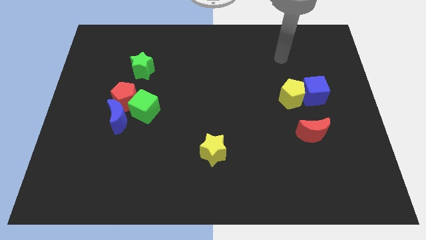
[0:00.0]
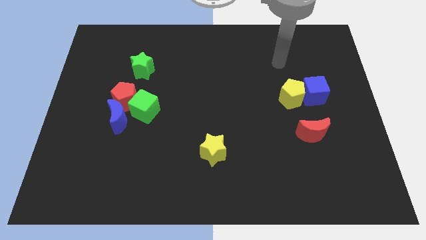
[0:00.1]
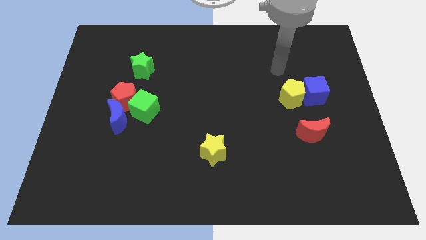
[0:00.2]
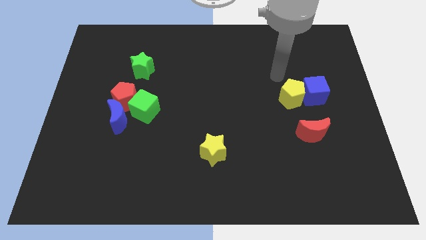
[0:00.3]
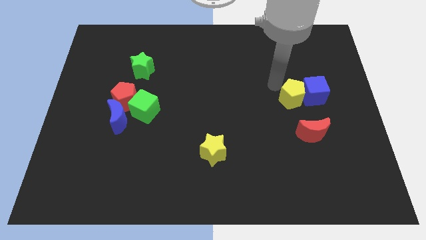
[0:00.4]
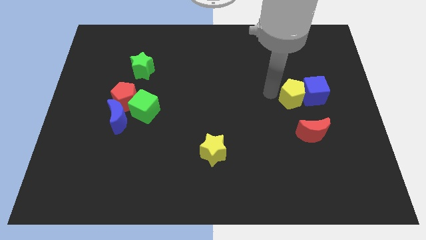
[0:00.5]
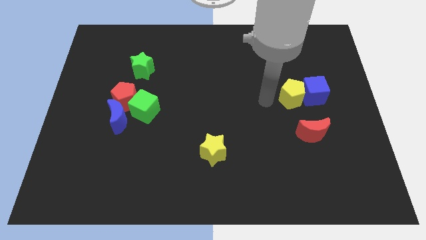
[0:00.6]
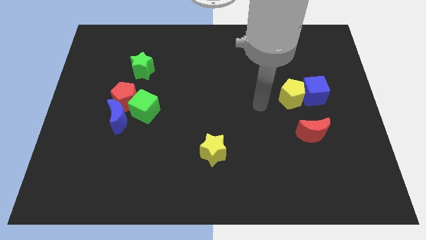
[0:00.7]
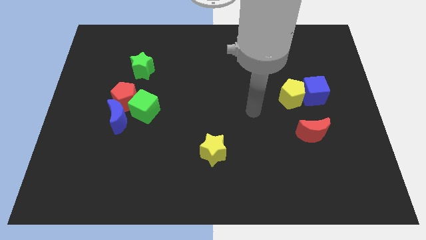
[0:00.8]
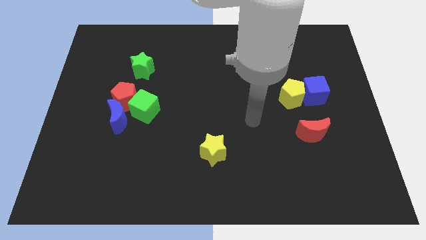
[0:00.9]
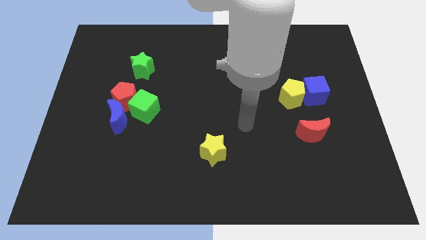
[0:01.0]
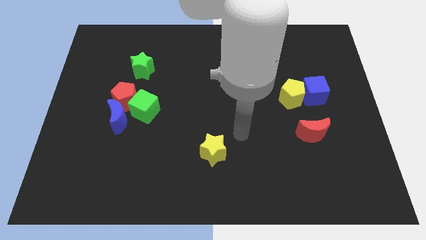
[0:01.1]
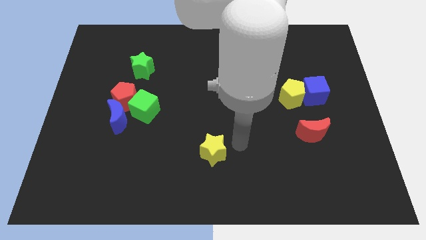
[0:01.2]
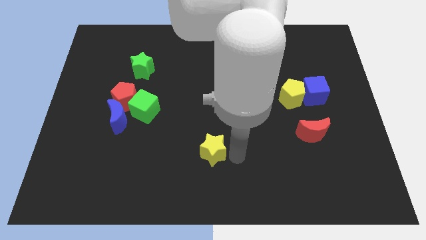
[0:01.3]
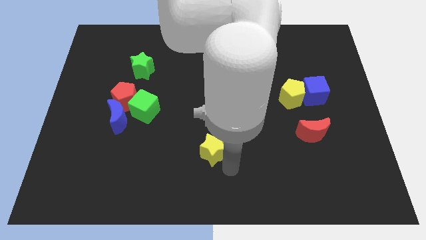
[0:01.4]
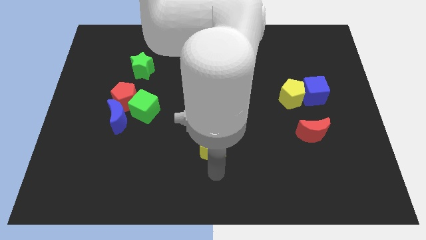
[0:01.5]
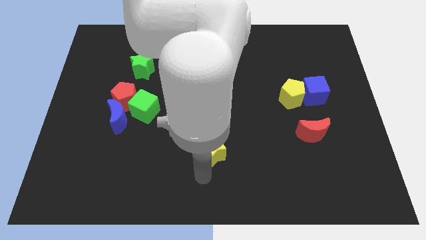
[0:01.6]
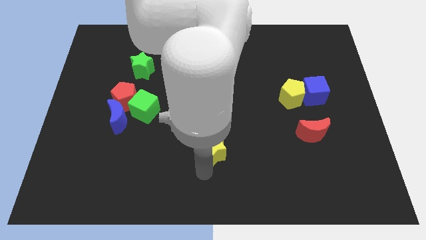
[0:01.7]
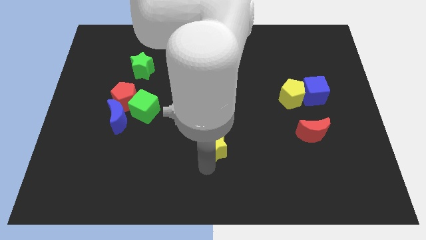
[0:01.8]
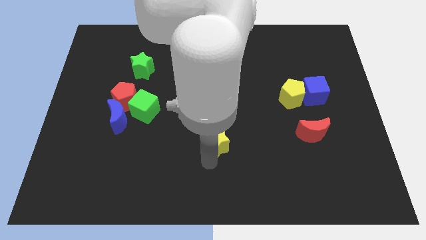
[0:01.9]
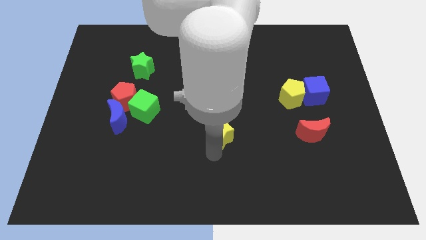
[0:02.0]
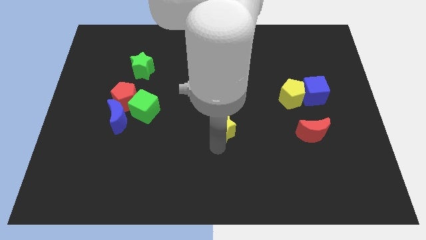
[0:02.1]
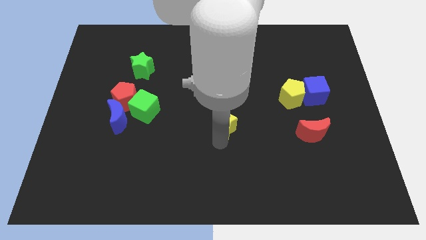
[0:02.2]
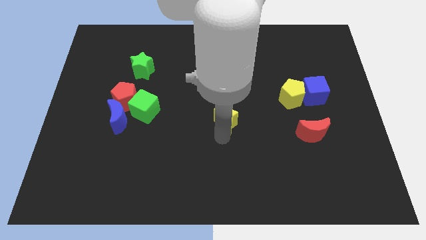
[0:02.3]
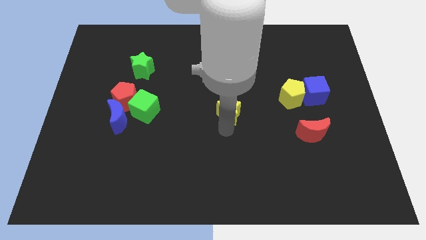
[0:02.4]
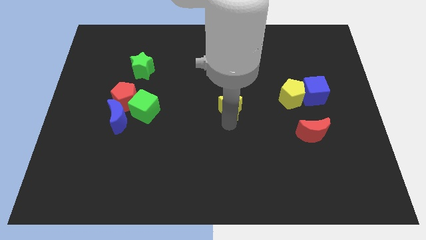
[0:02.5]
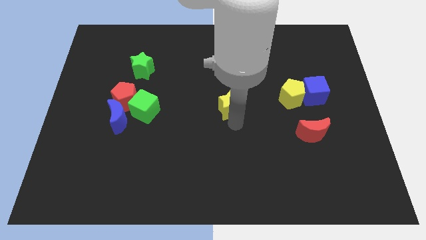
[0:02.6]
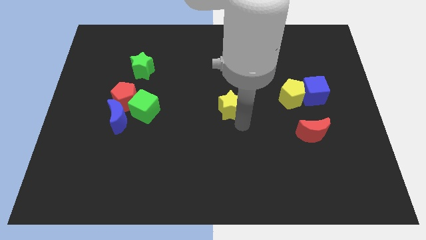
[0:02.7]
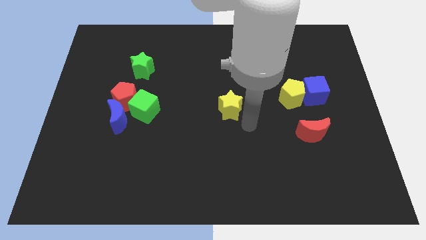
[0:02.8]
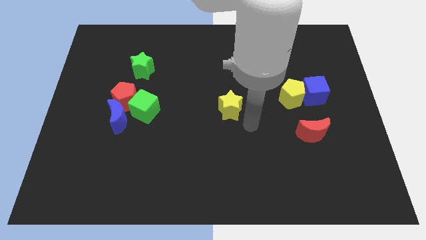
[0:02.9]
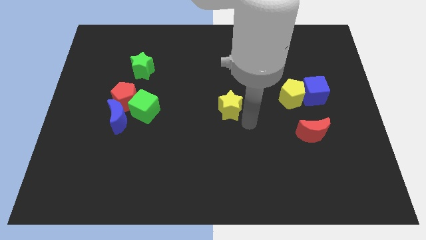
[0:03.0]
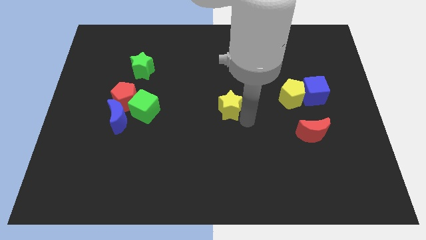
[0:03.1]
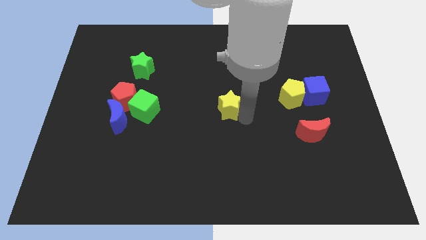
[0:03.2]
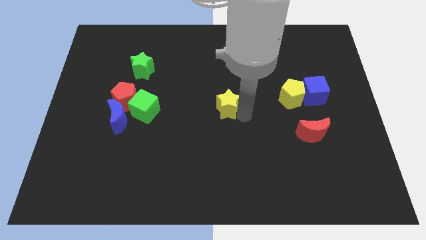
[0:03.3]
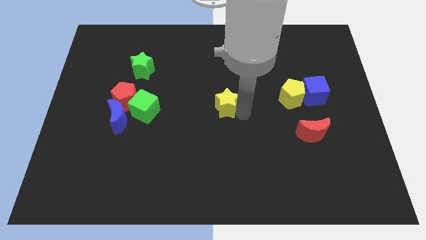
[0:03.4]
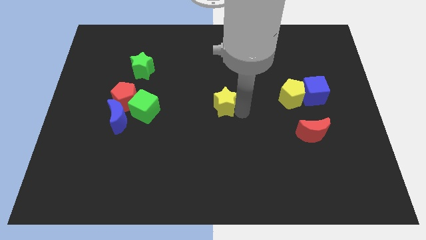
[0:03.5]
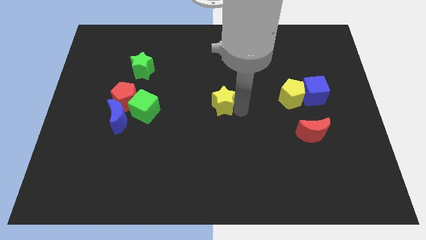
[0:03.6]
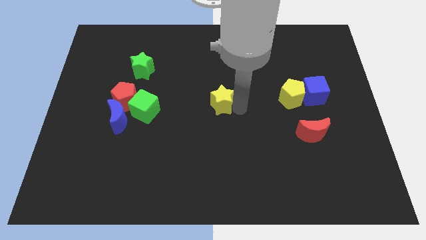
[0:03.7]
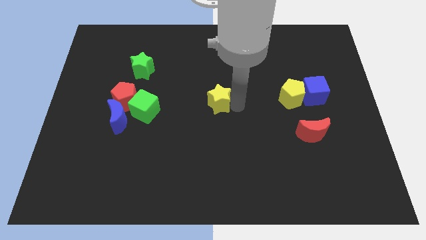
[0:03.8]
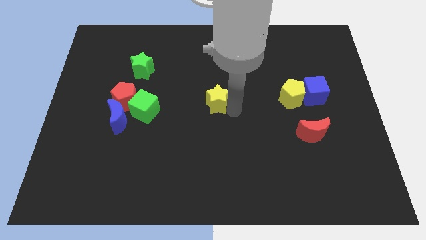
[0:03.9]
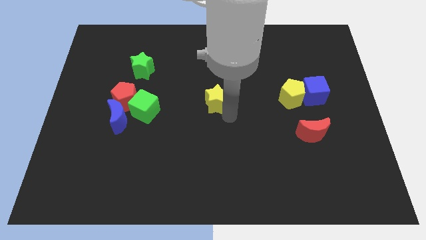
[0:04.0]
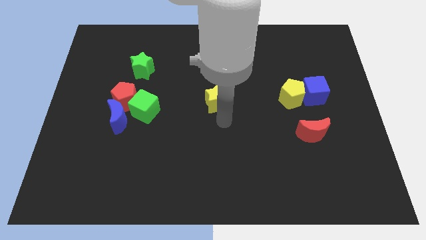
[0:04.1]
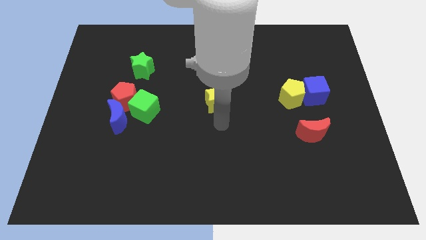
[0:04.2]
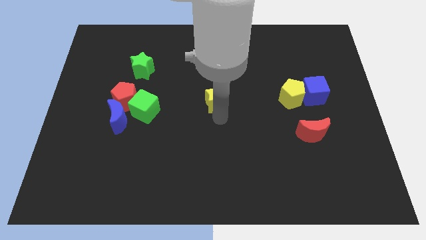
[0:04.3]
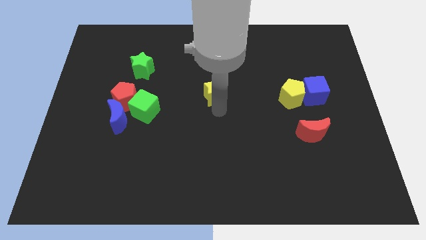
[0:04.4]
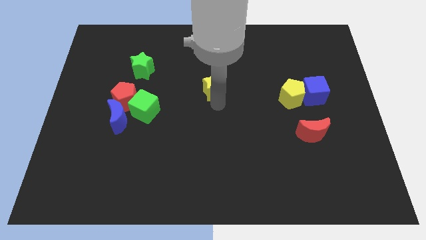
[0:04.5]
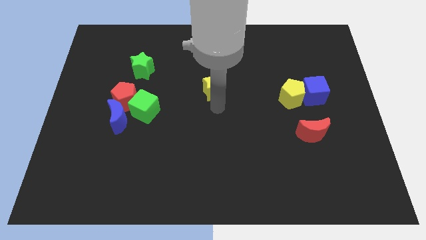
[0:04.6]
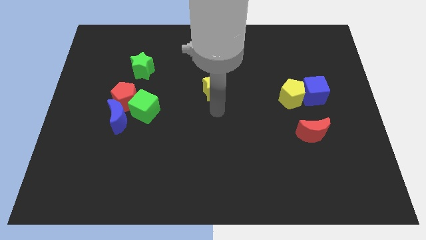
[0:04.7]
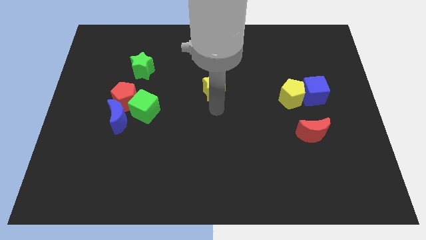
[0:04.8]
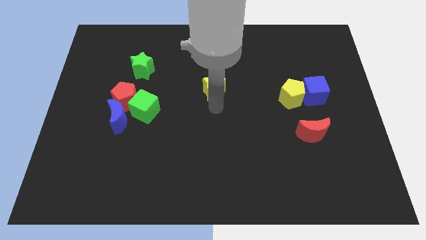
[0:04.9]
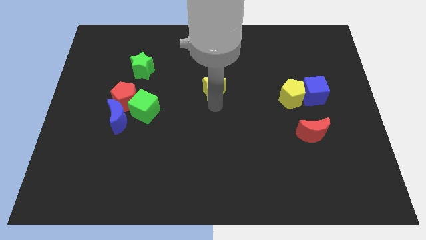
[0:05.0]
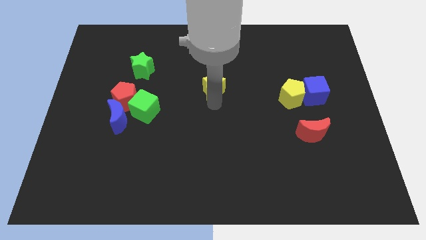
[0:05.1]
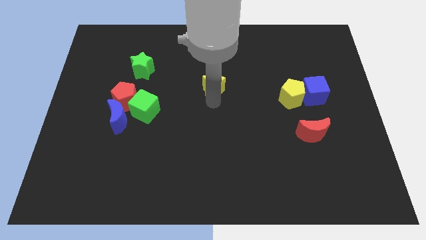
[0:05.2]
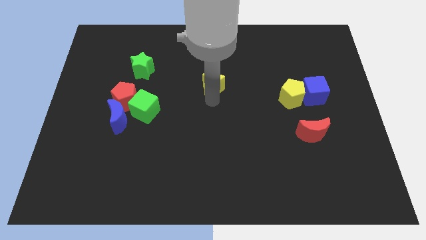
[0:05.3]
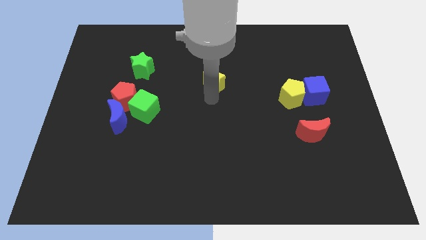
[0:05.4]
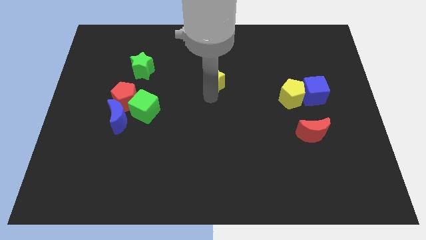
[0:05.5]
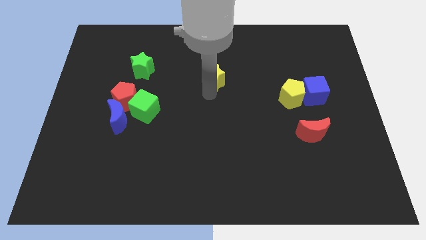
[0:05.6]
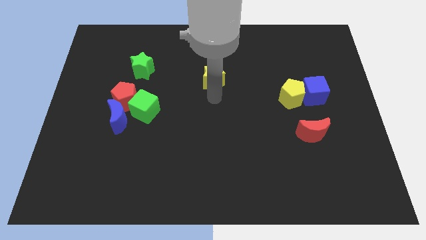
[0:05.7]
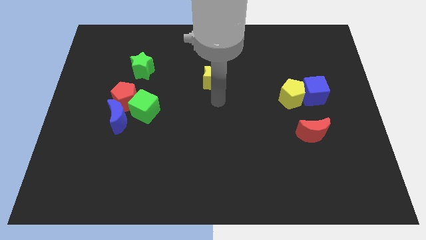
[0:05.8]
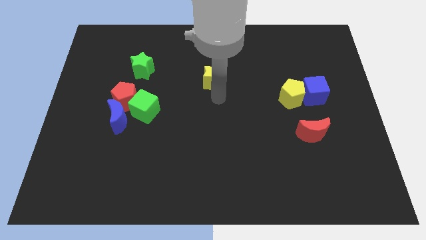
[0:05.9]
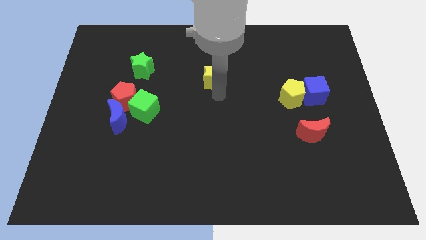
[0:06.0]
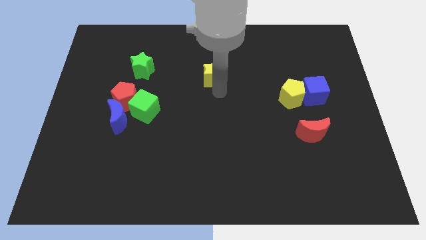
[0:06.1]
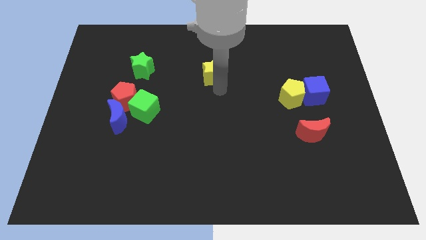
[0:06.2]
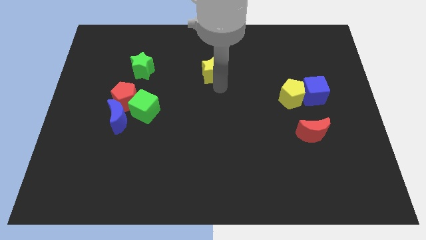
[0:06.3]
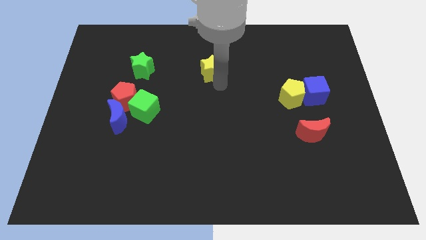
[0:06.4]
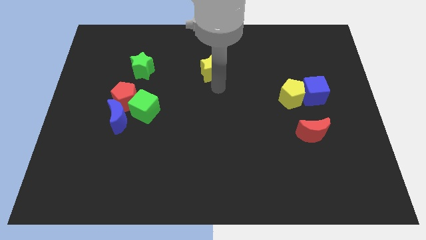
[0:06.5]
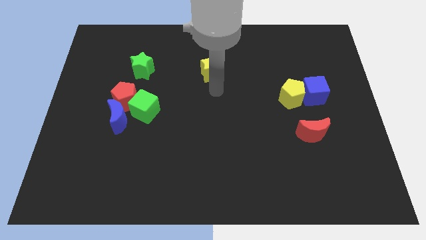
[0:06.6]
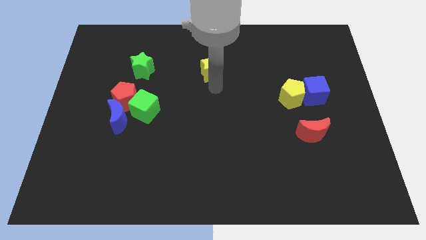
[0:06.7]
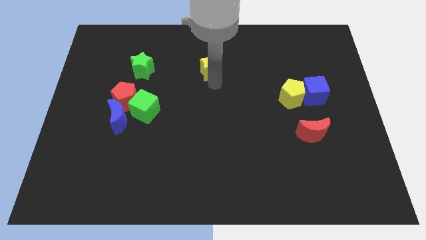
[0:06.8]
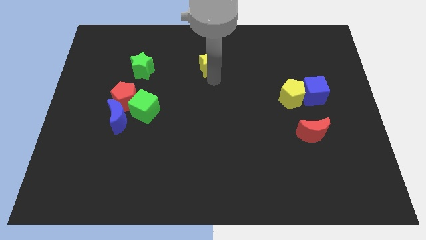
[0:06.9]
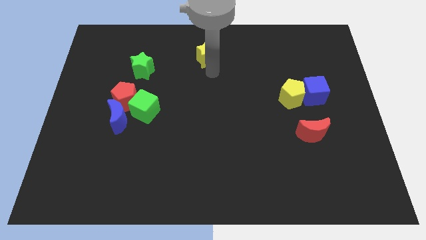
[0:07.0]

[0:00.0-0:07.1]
move the yellow star to the top
